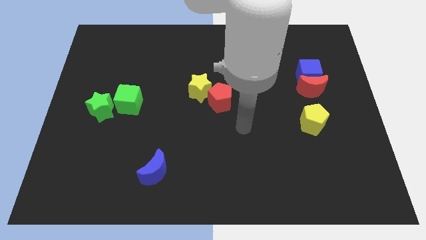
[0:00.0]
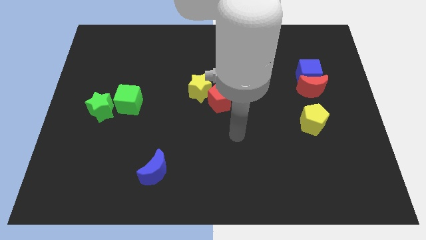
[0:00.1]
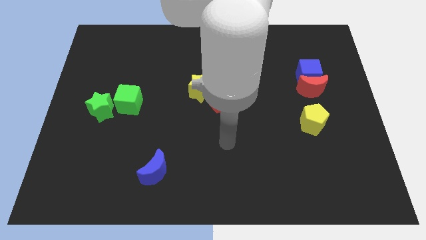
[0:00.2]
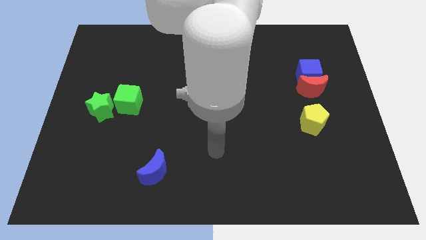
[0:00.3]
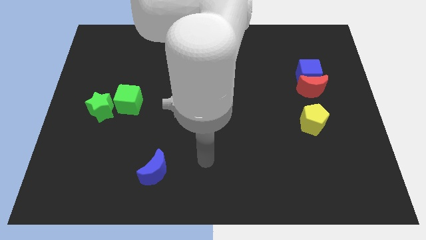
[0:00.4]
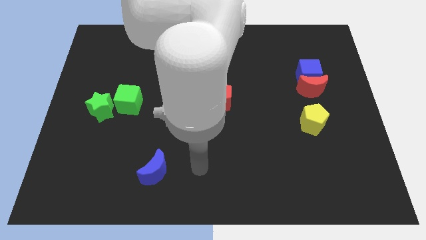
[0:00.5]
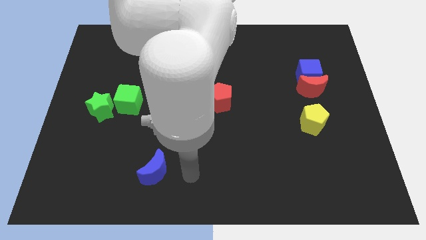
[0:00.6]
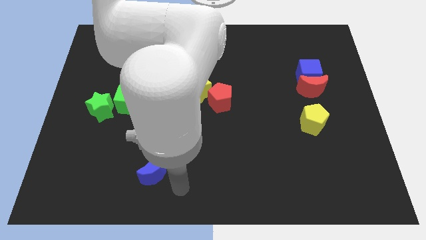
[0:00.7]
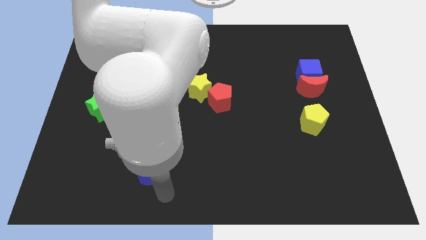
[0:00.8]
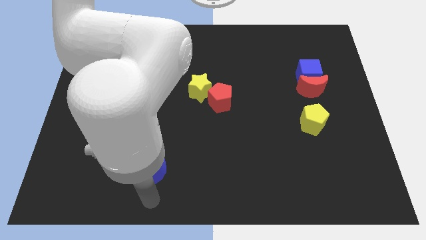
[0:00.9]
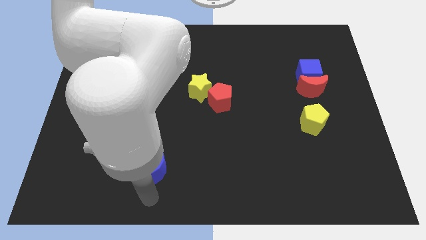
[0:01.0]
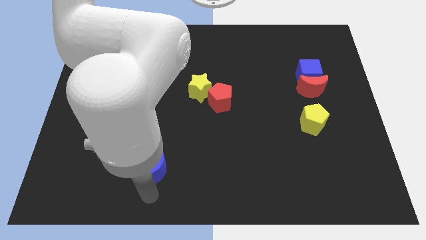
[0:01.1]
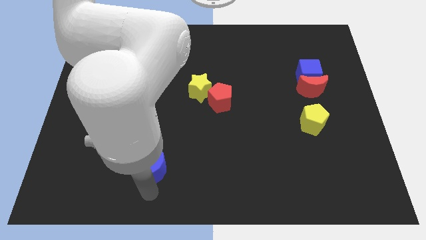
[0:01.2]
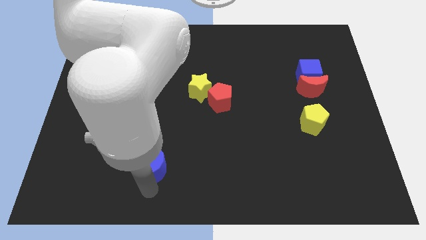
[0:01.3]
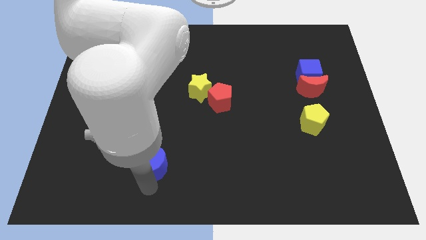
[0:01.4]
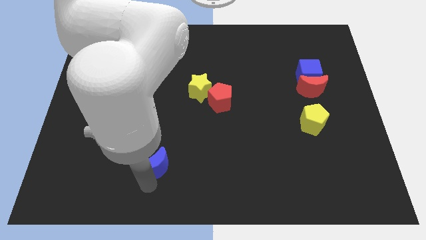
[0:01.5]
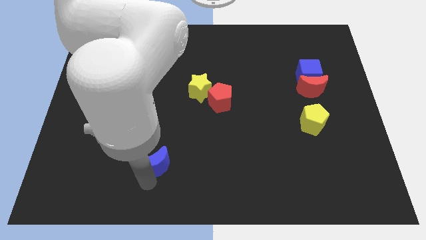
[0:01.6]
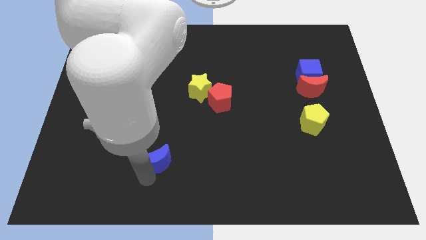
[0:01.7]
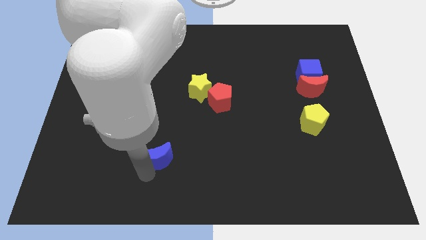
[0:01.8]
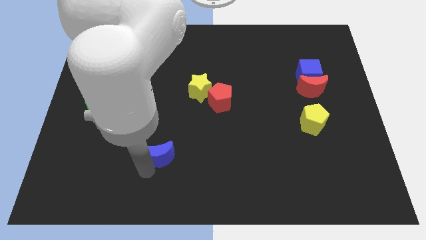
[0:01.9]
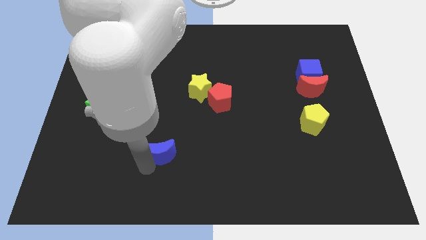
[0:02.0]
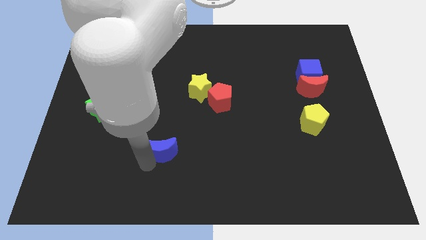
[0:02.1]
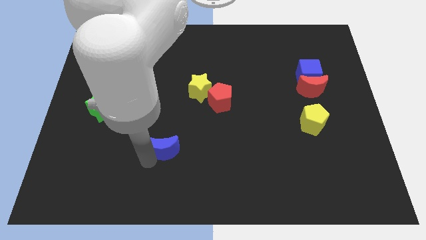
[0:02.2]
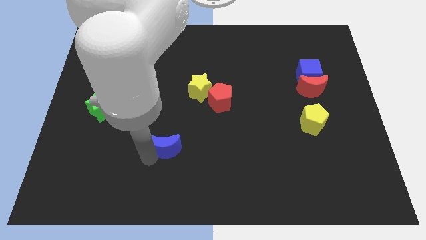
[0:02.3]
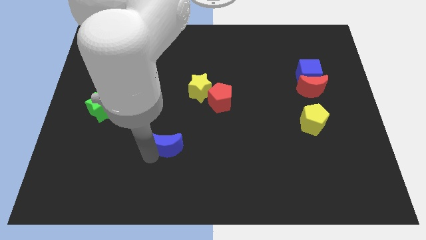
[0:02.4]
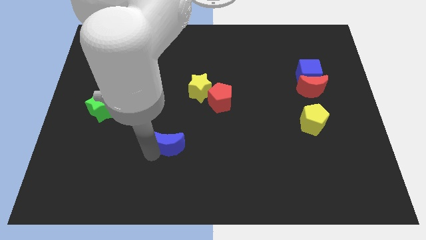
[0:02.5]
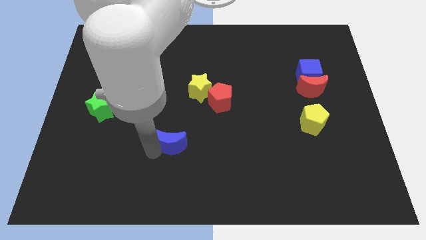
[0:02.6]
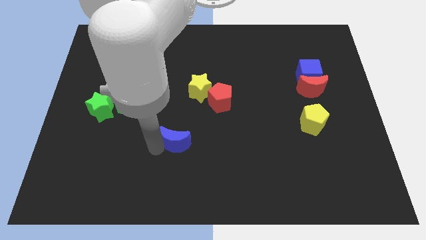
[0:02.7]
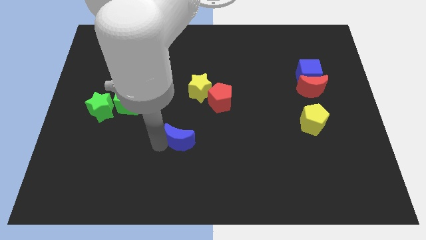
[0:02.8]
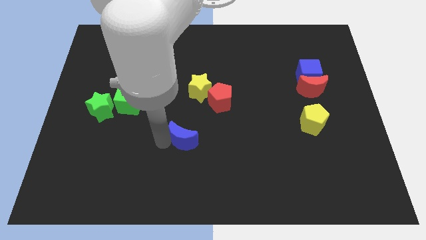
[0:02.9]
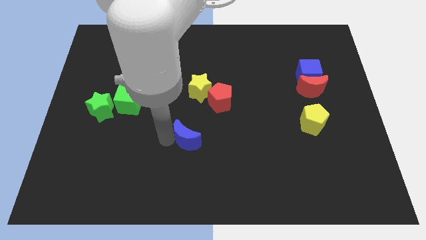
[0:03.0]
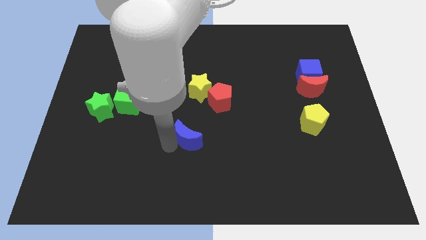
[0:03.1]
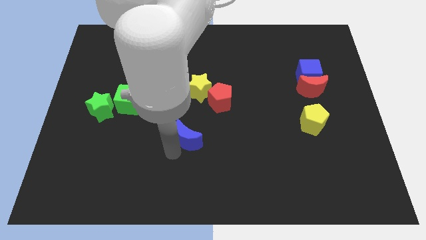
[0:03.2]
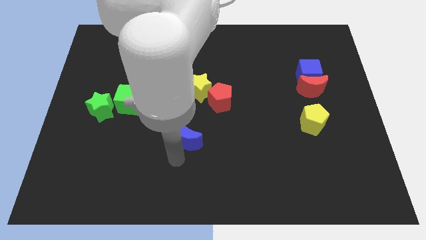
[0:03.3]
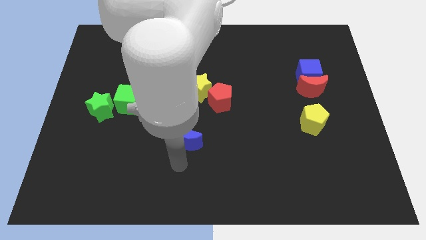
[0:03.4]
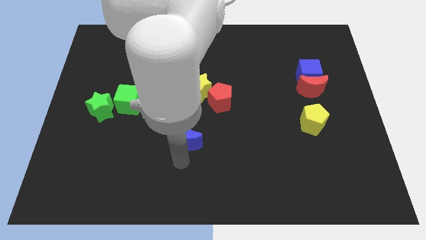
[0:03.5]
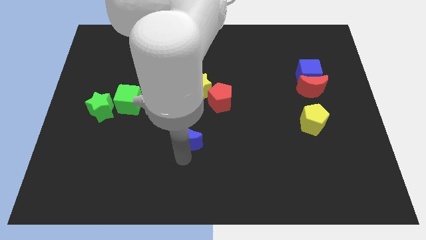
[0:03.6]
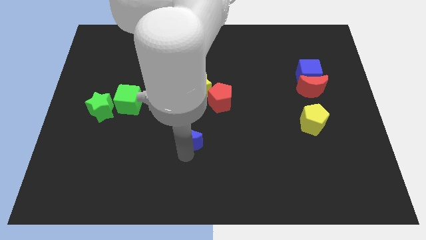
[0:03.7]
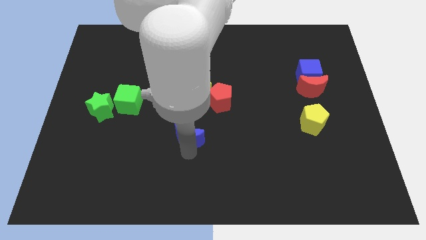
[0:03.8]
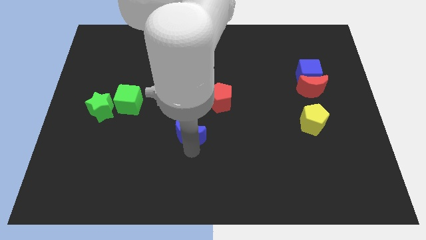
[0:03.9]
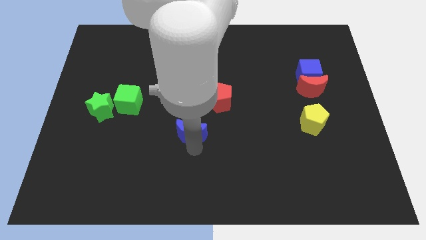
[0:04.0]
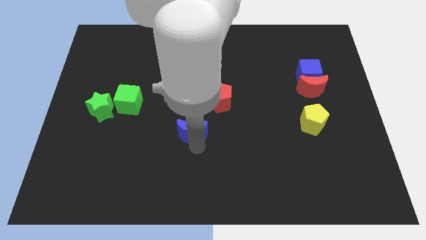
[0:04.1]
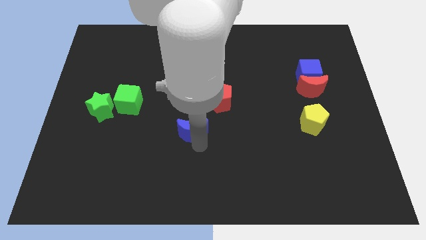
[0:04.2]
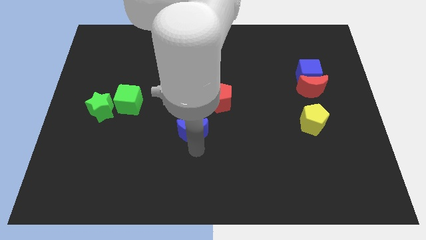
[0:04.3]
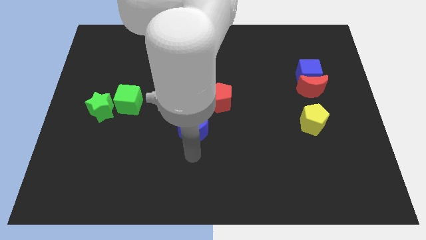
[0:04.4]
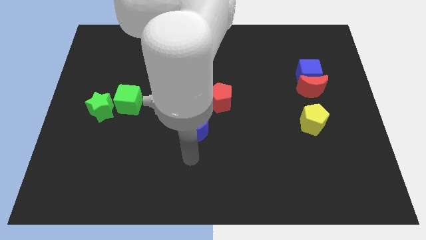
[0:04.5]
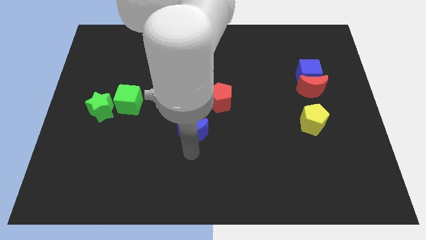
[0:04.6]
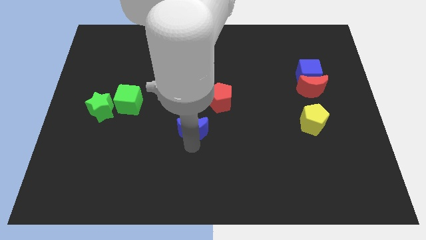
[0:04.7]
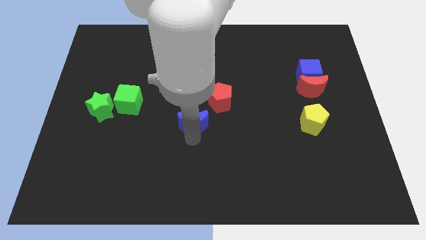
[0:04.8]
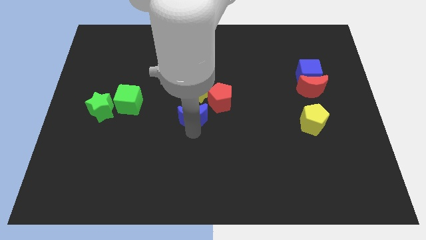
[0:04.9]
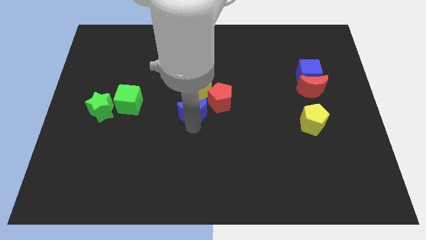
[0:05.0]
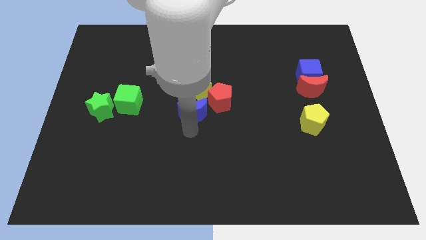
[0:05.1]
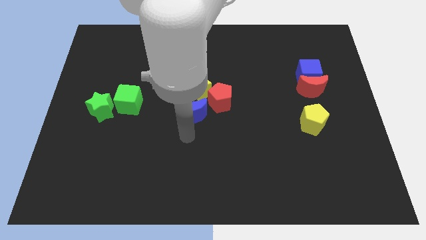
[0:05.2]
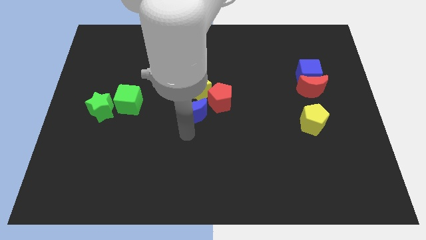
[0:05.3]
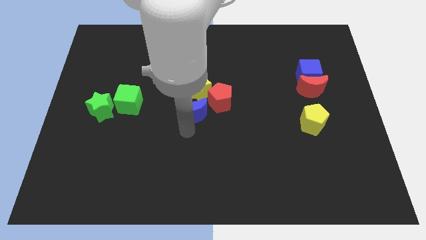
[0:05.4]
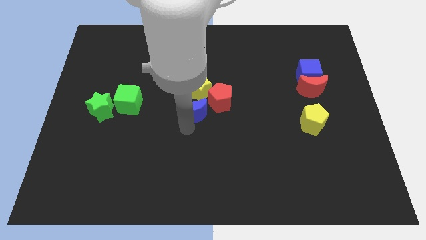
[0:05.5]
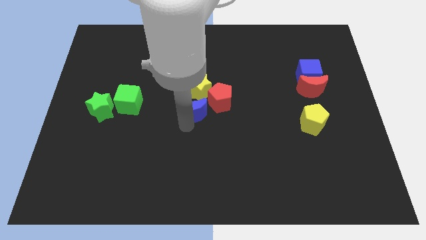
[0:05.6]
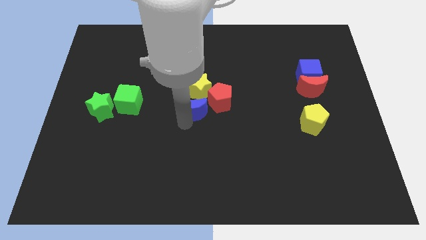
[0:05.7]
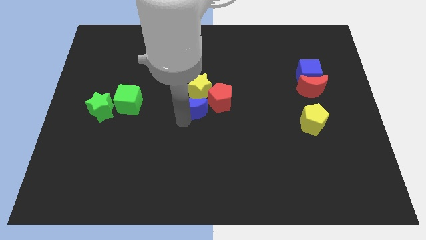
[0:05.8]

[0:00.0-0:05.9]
slide the blue moon next to the yellow star

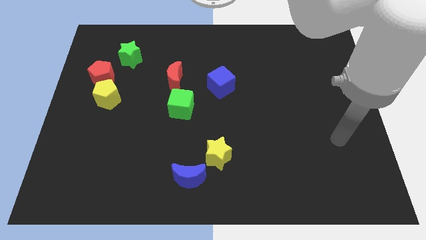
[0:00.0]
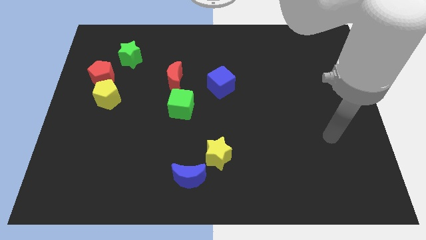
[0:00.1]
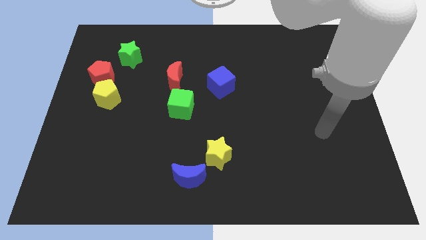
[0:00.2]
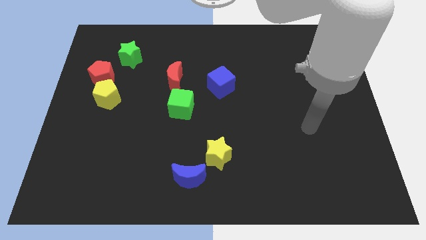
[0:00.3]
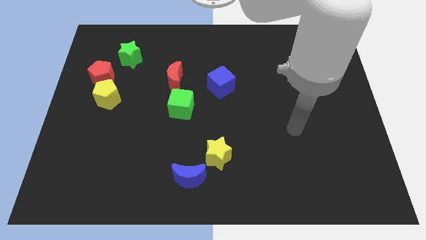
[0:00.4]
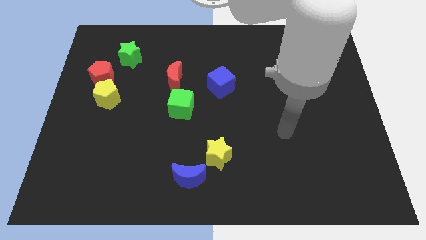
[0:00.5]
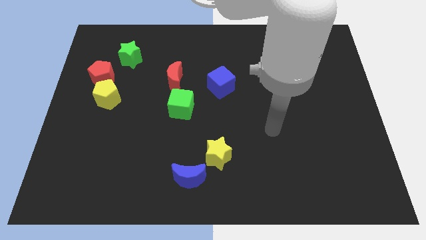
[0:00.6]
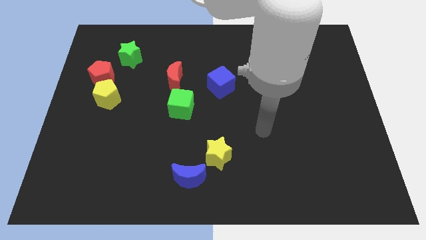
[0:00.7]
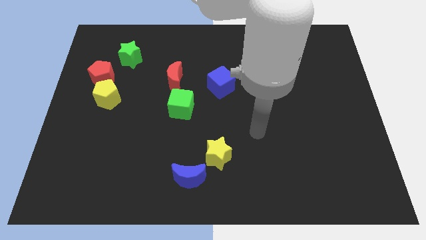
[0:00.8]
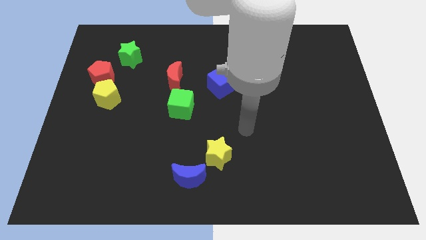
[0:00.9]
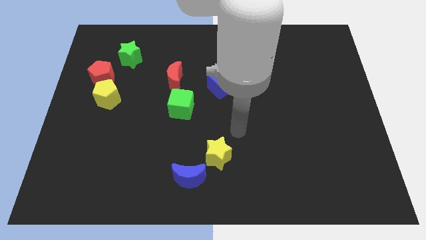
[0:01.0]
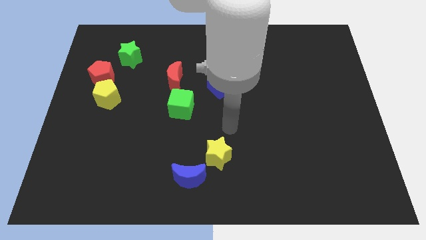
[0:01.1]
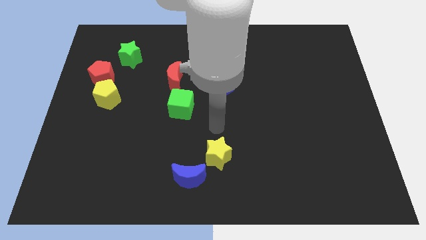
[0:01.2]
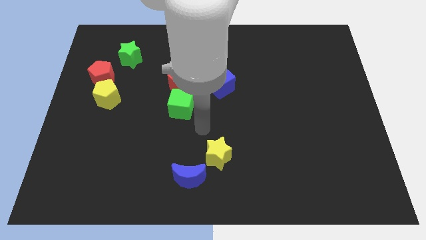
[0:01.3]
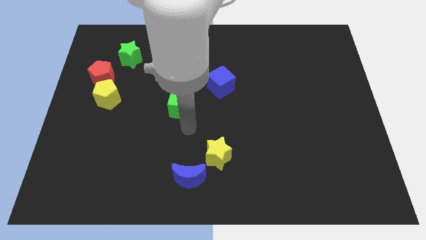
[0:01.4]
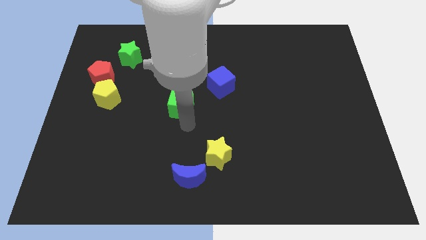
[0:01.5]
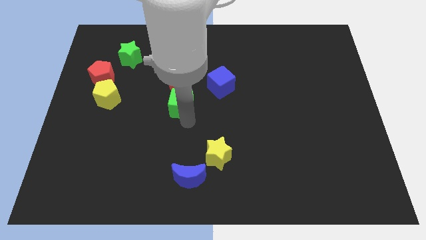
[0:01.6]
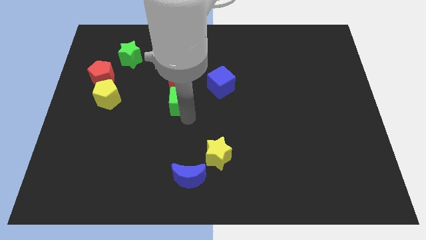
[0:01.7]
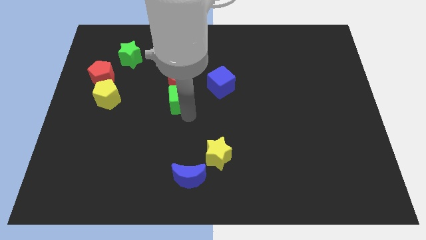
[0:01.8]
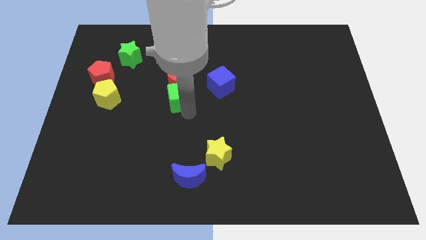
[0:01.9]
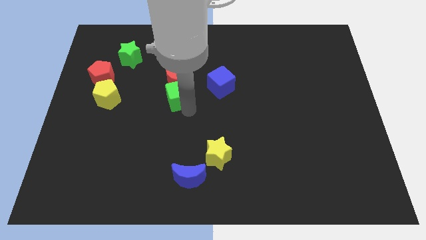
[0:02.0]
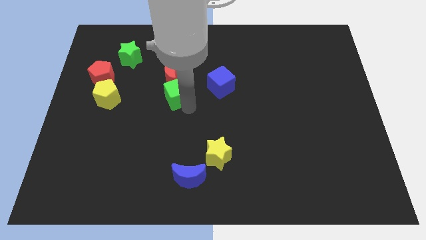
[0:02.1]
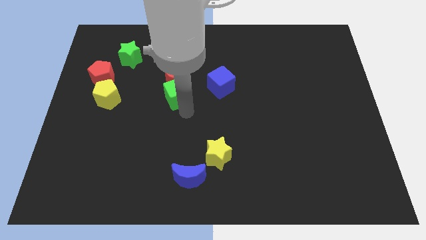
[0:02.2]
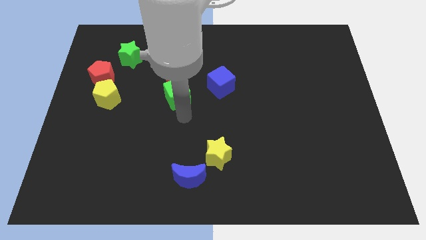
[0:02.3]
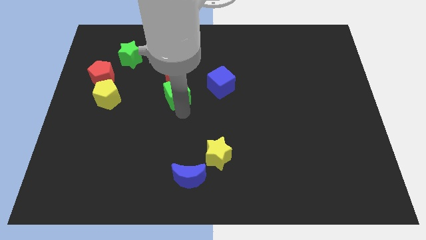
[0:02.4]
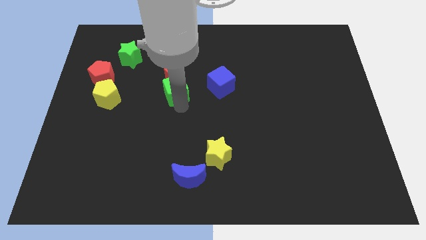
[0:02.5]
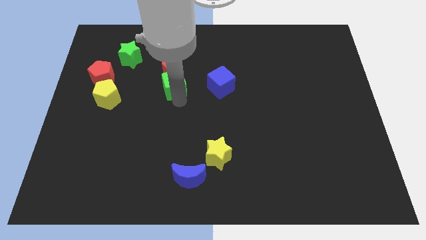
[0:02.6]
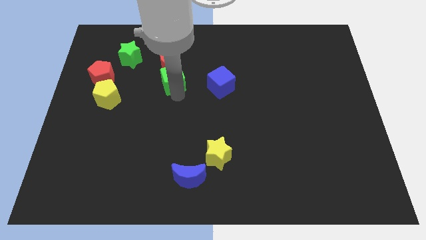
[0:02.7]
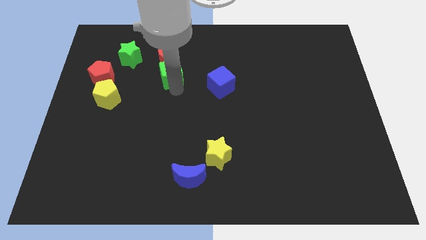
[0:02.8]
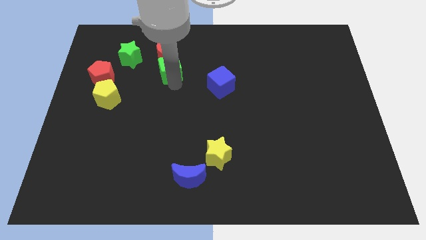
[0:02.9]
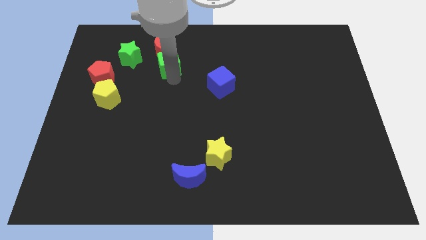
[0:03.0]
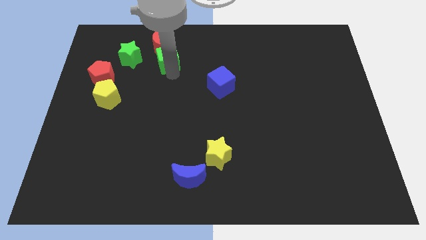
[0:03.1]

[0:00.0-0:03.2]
slide the green cube next to the red moon
